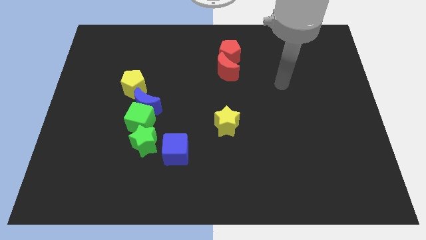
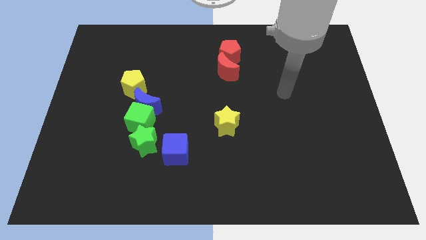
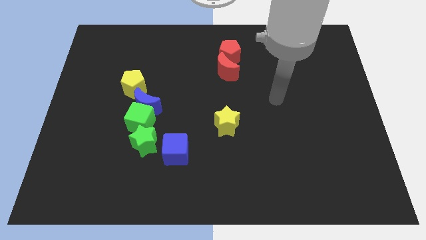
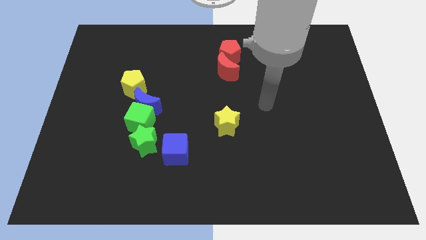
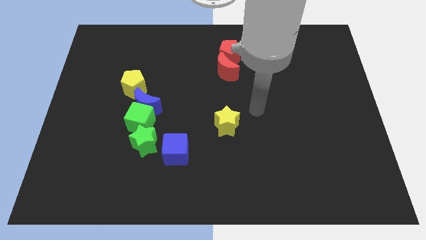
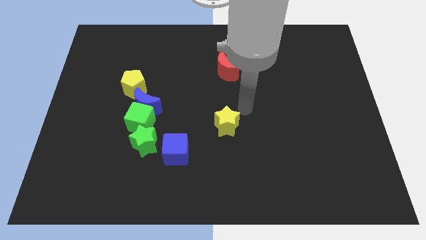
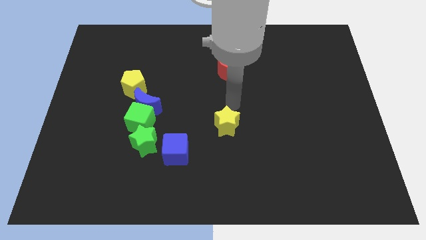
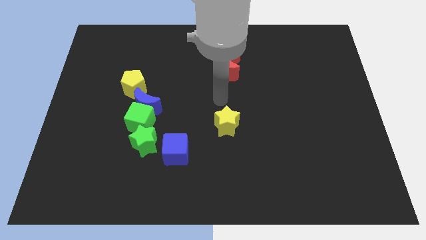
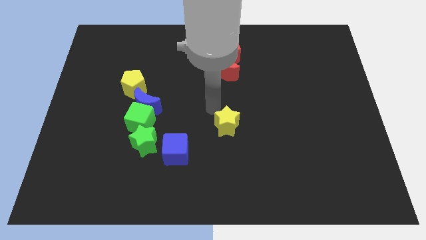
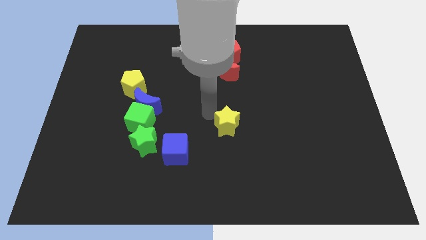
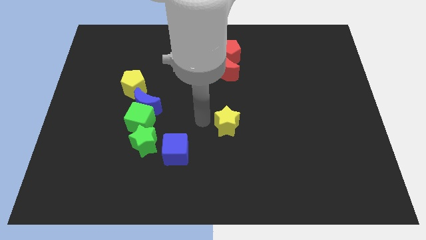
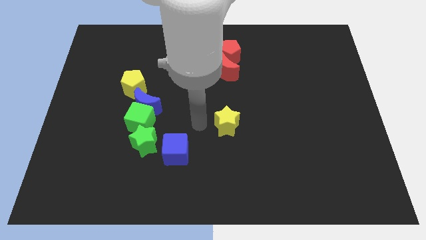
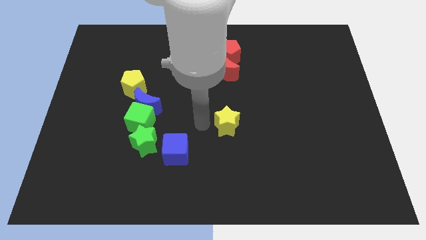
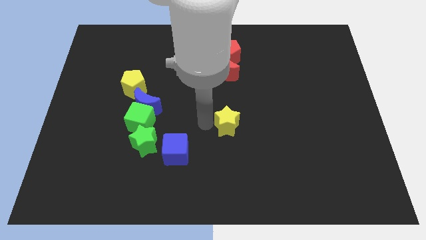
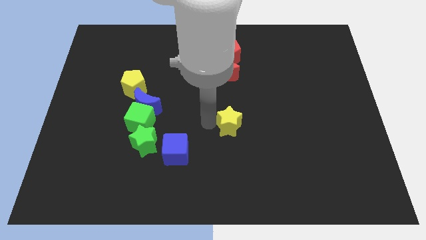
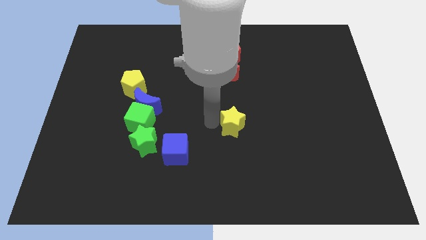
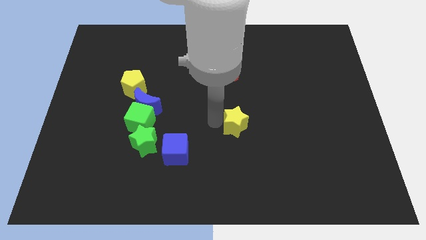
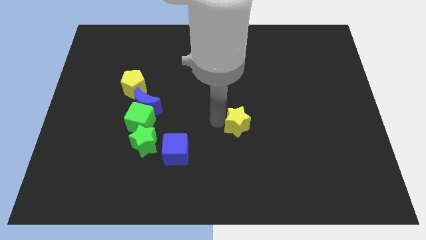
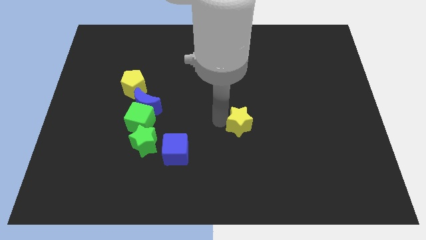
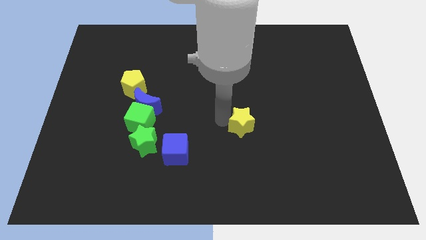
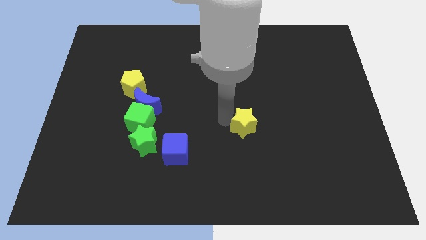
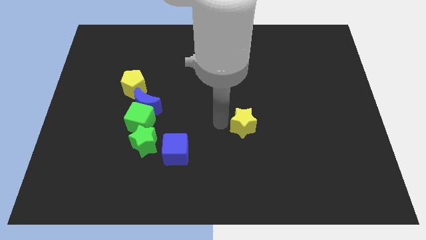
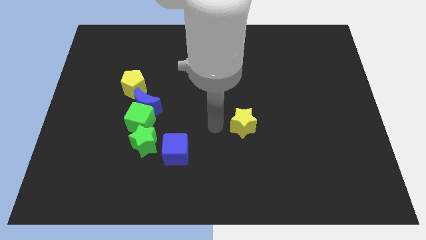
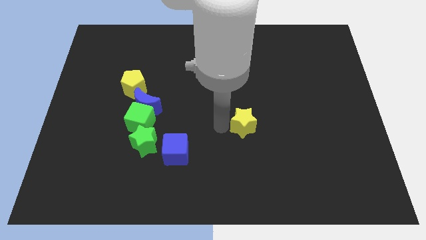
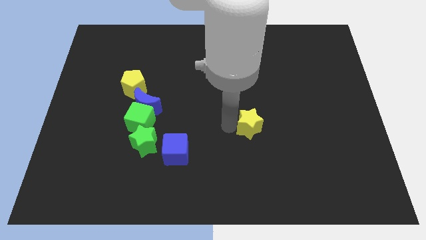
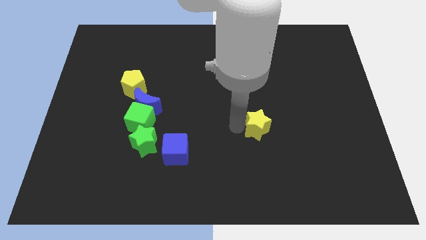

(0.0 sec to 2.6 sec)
push the yellow star somewhat right

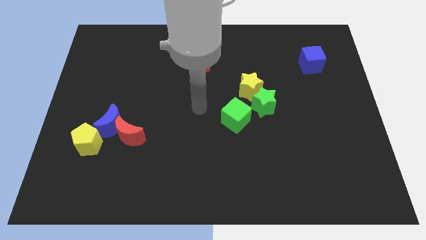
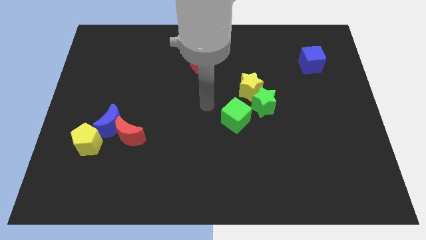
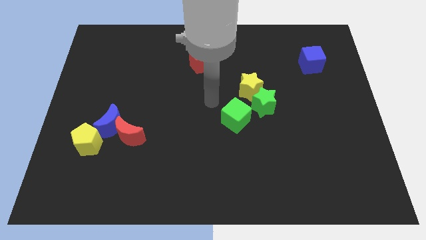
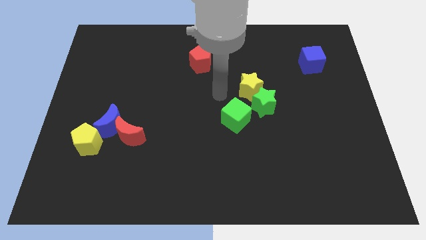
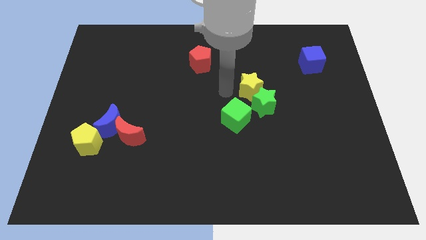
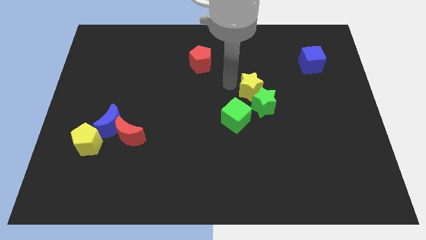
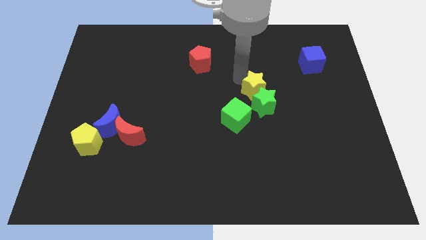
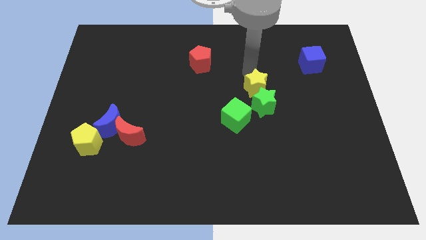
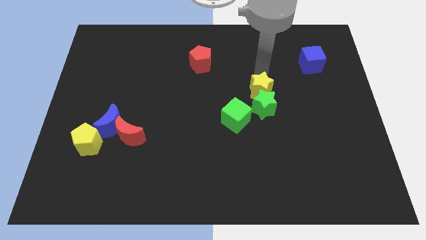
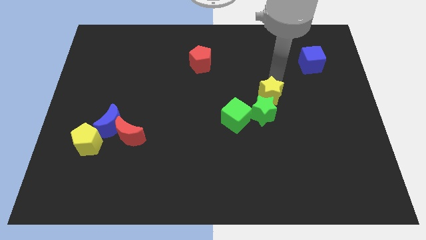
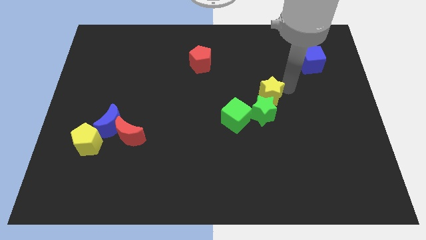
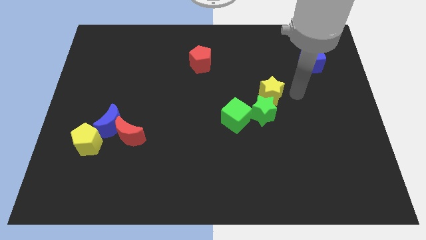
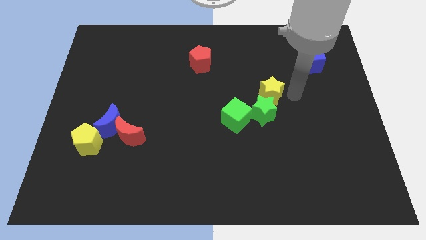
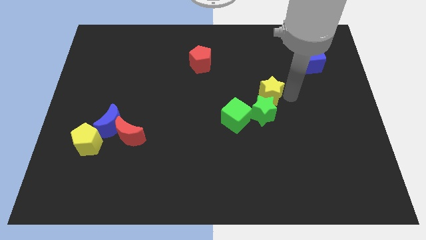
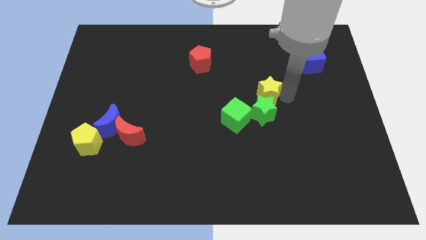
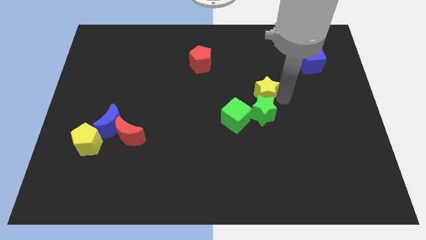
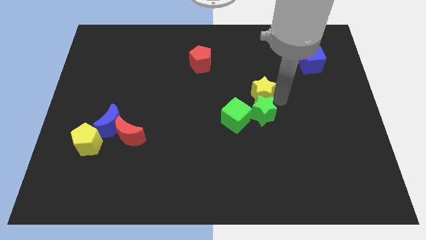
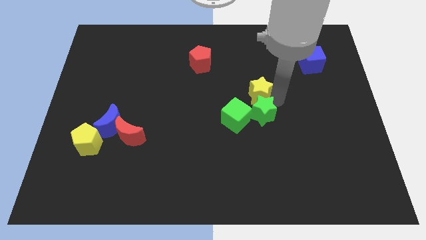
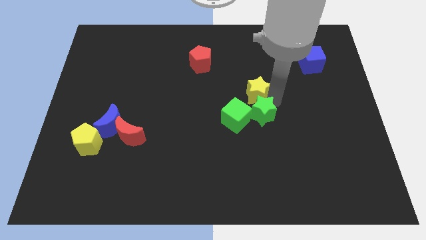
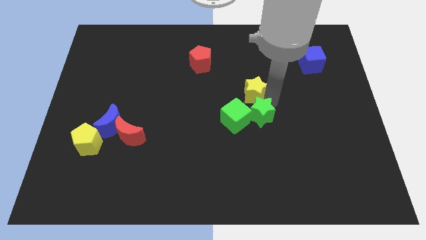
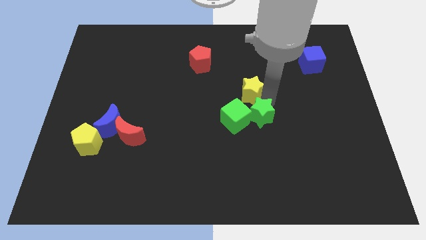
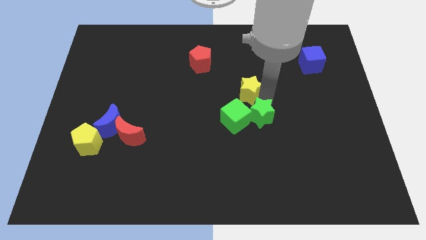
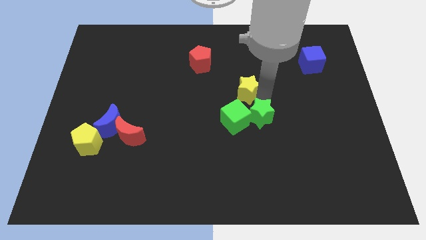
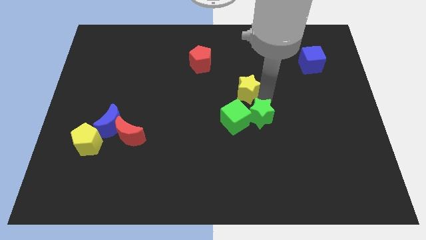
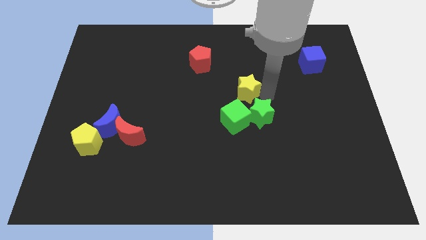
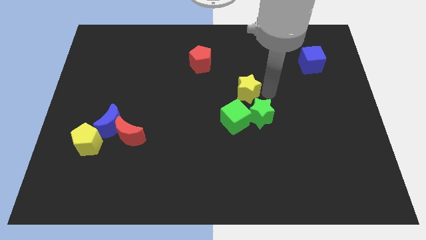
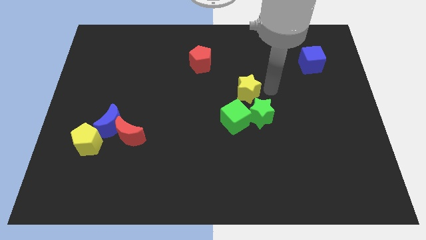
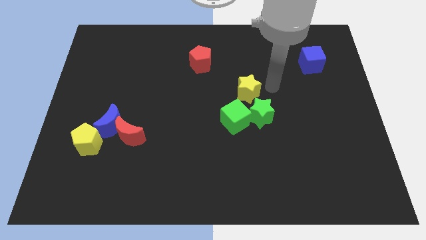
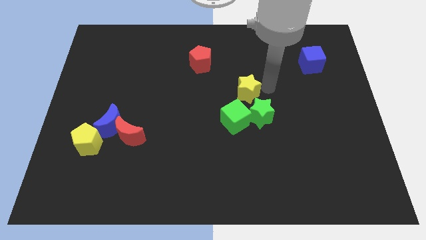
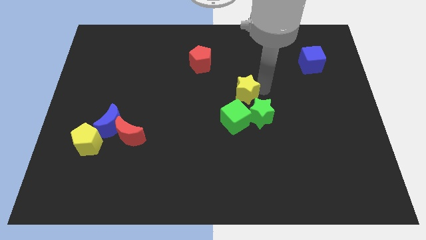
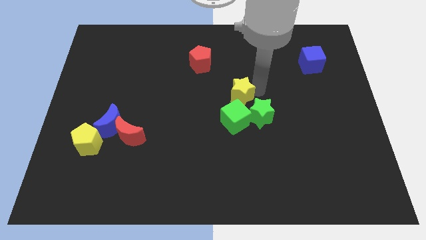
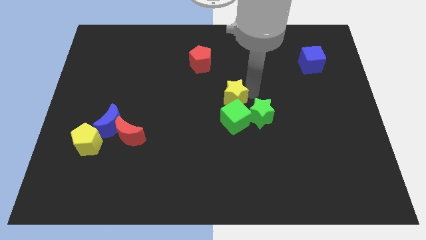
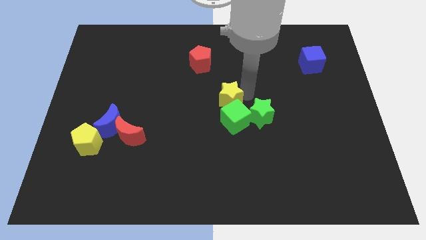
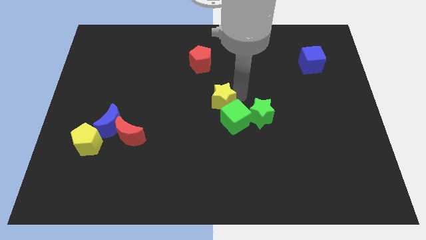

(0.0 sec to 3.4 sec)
slide the yellow star slightly down and to the left diagonally

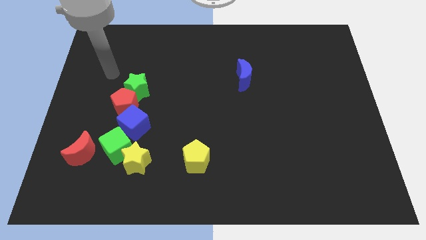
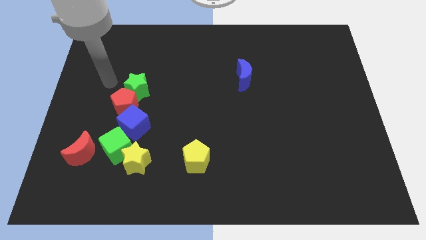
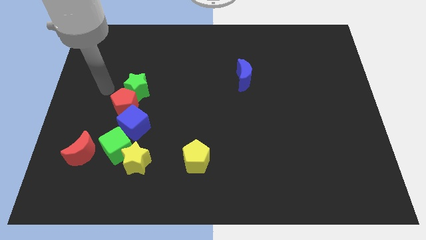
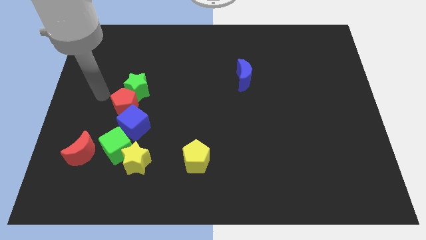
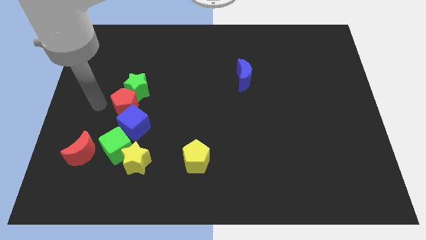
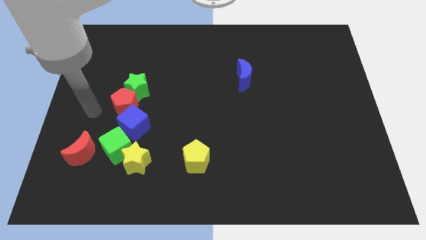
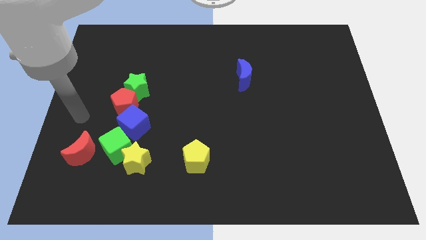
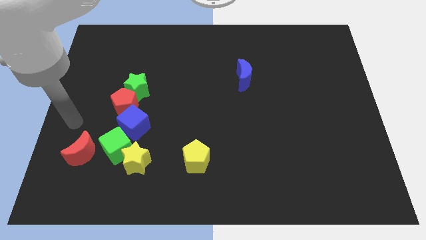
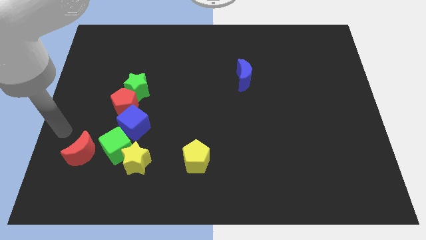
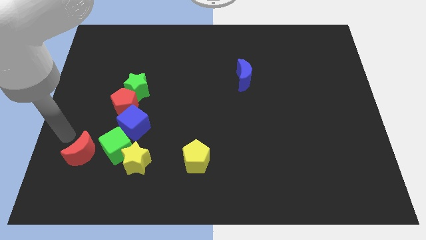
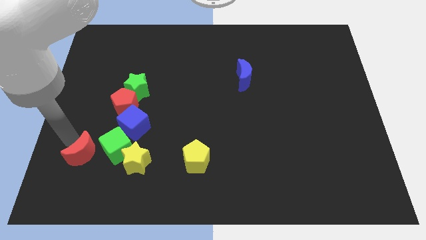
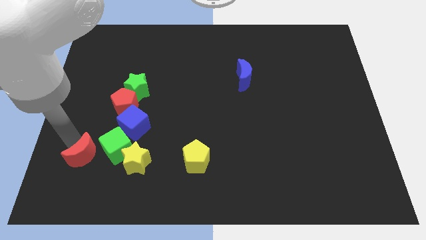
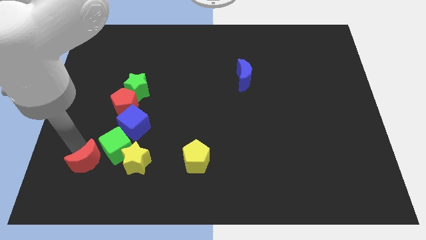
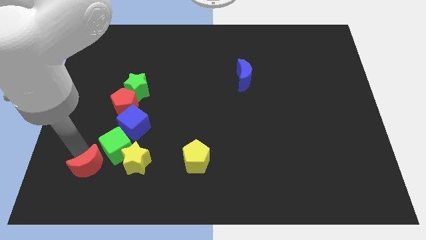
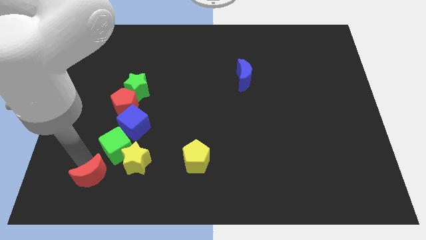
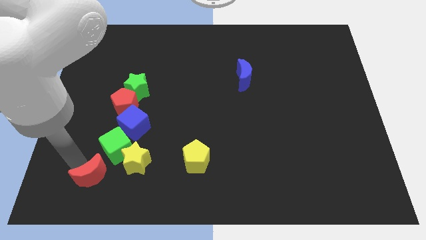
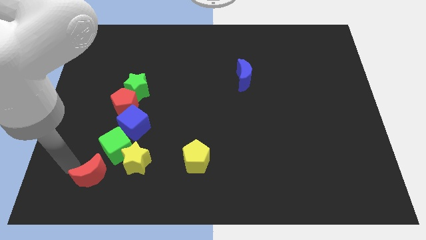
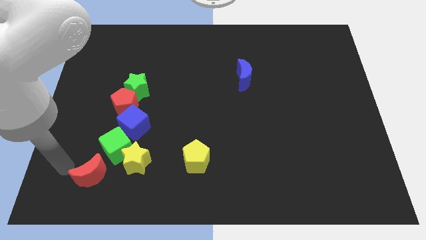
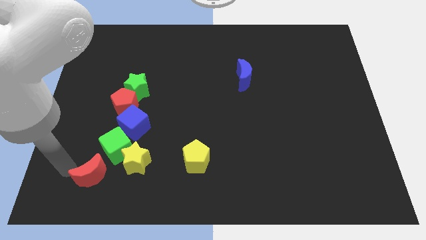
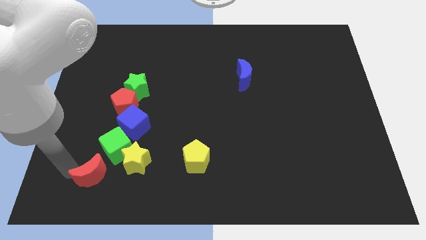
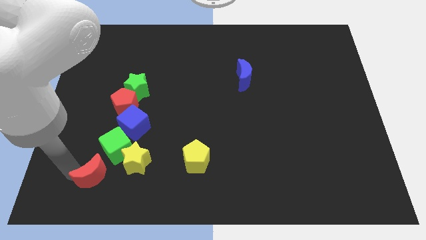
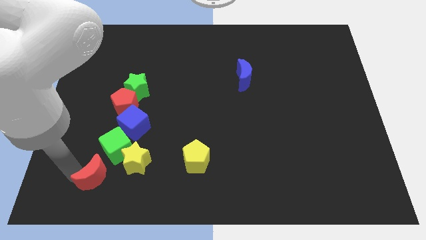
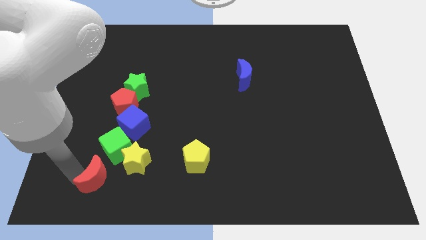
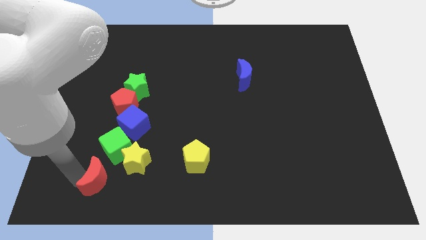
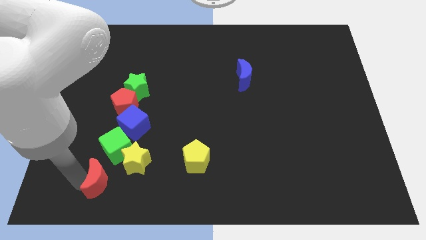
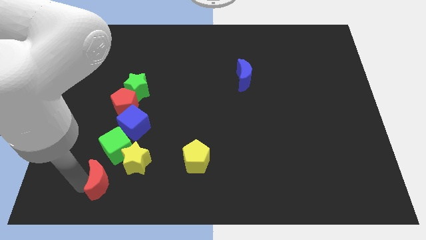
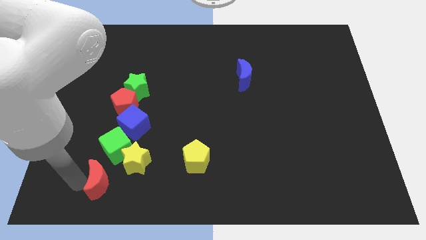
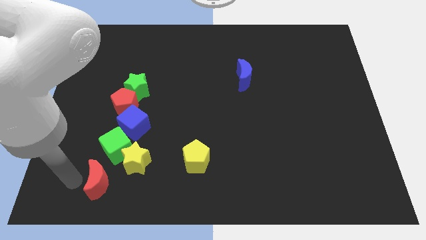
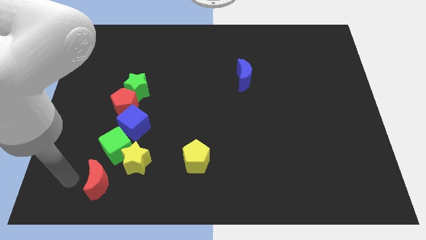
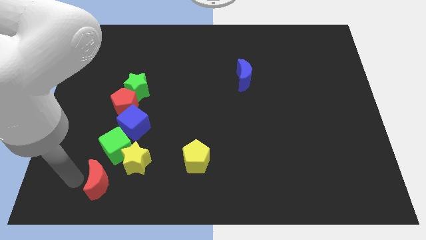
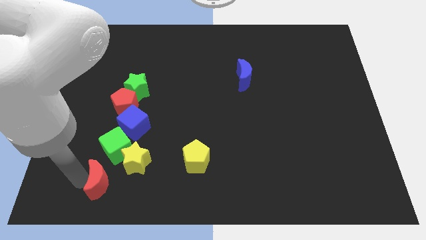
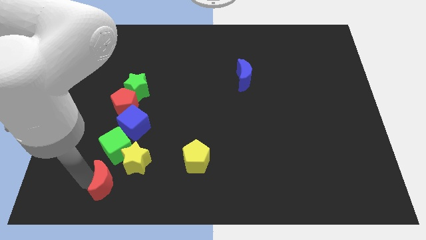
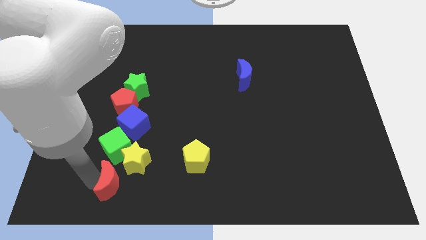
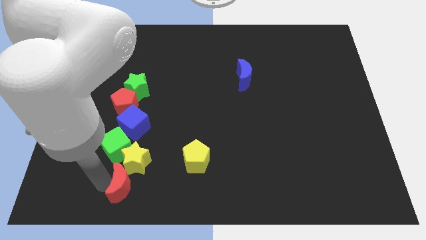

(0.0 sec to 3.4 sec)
slightly push the red moon to the right
